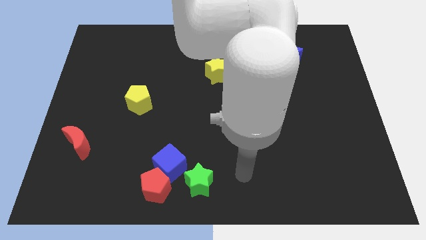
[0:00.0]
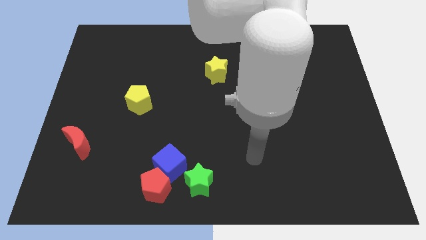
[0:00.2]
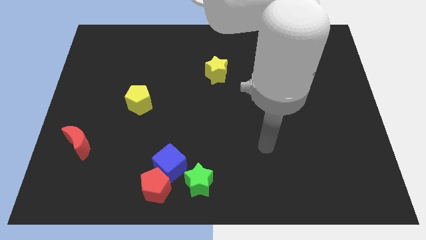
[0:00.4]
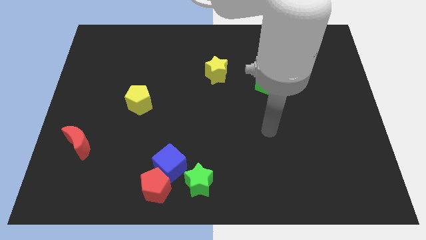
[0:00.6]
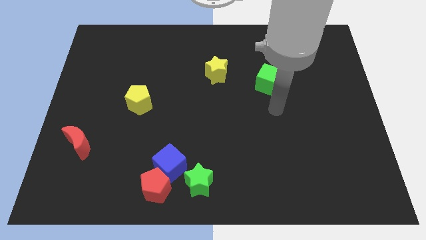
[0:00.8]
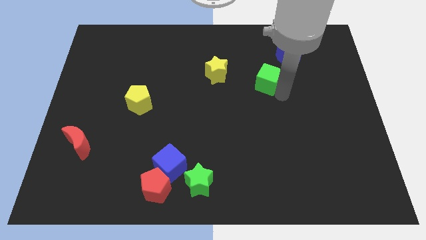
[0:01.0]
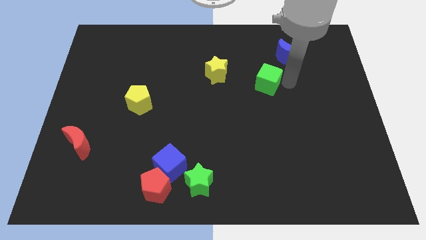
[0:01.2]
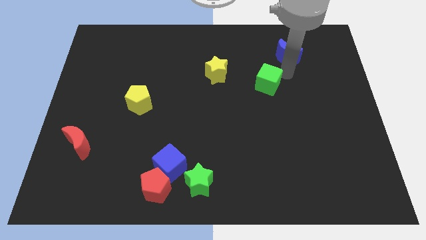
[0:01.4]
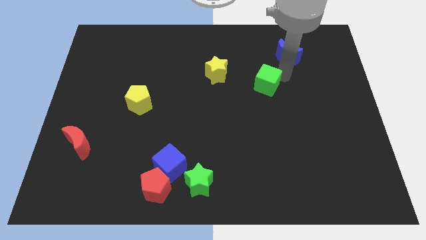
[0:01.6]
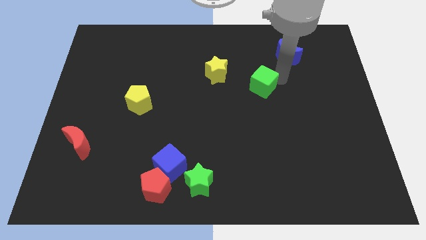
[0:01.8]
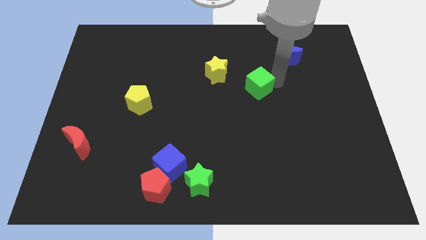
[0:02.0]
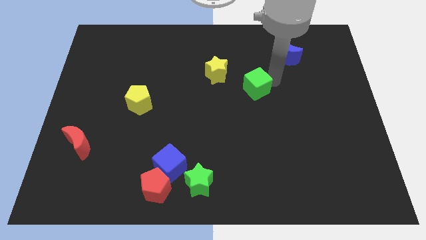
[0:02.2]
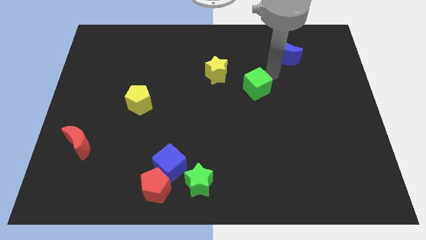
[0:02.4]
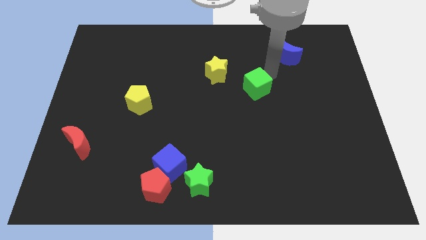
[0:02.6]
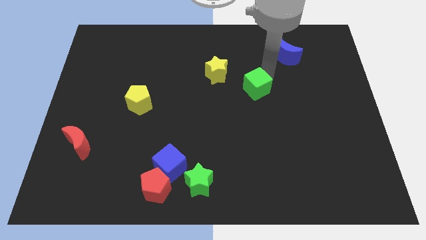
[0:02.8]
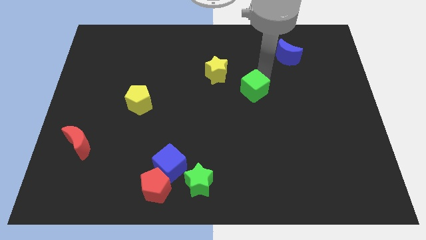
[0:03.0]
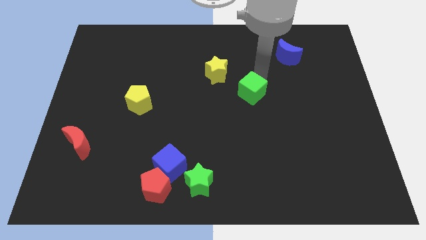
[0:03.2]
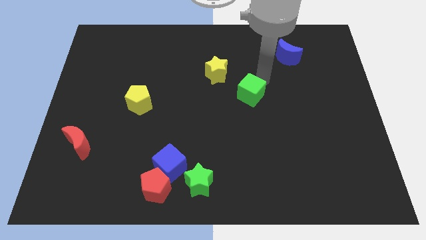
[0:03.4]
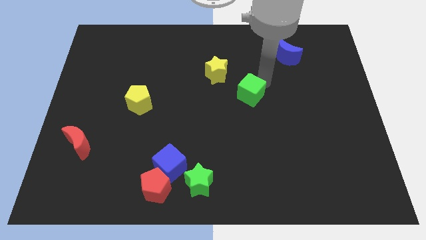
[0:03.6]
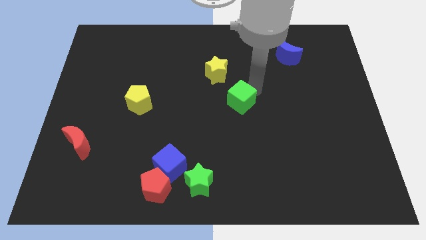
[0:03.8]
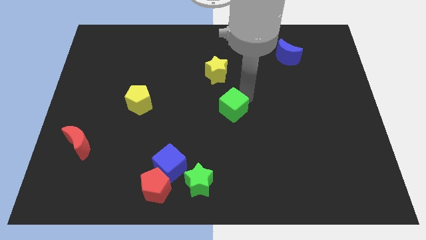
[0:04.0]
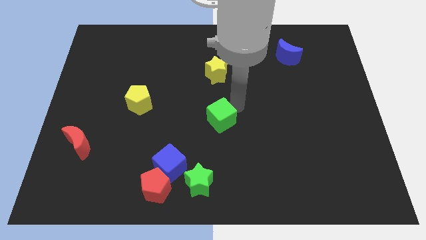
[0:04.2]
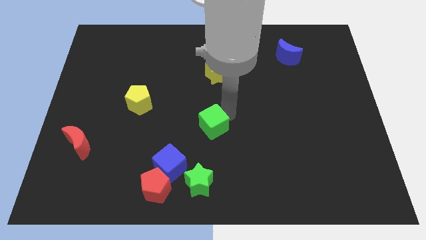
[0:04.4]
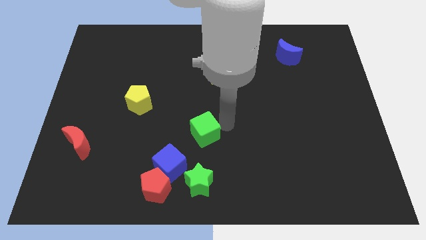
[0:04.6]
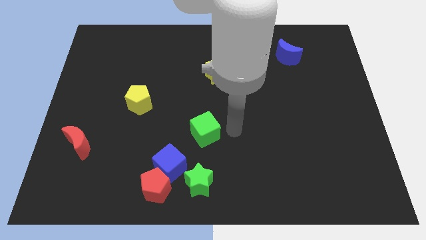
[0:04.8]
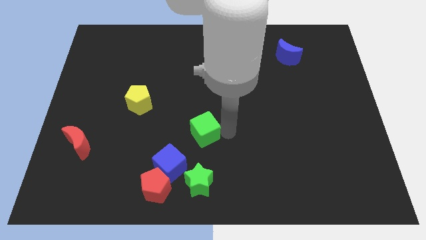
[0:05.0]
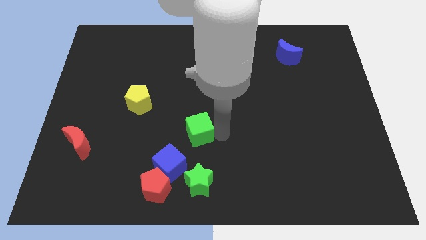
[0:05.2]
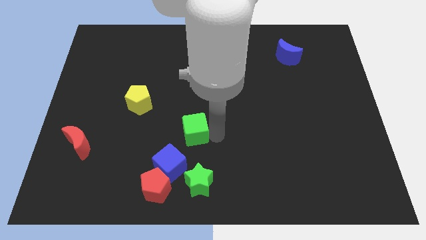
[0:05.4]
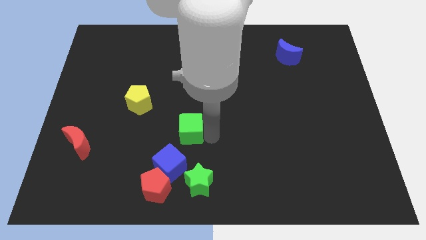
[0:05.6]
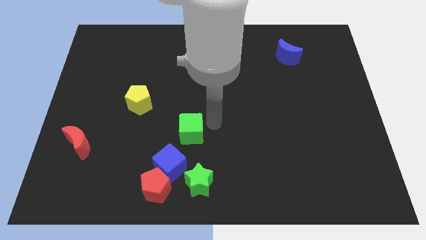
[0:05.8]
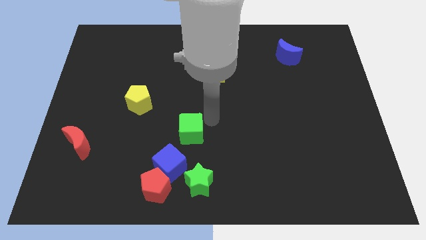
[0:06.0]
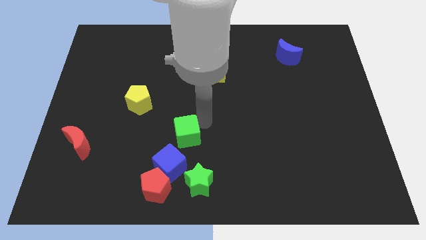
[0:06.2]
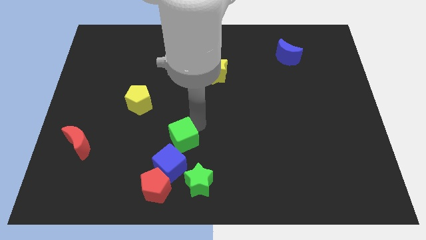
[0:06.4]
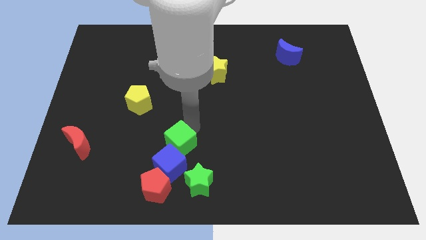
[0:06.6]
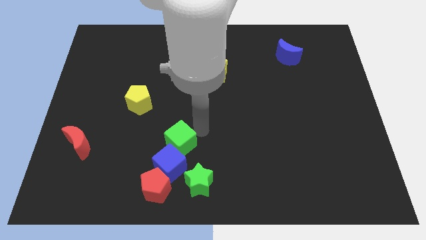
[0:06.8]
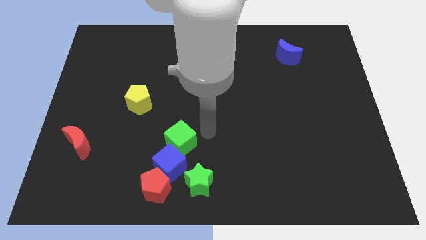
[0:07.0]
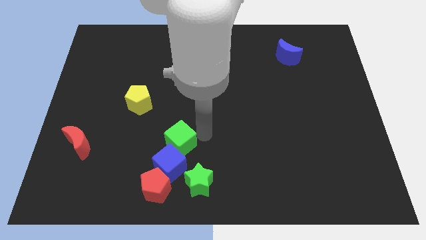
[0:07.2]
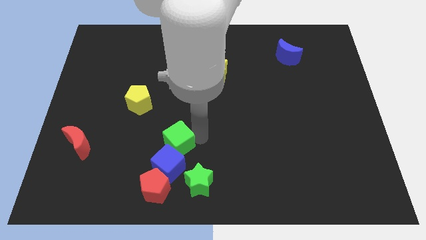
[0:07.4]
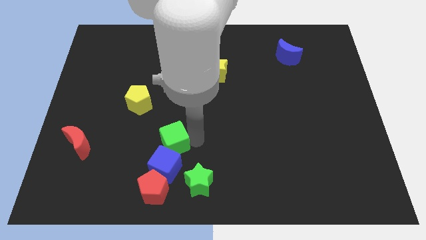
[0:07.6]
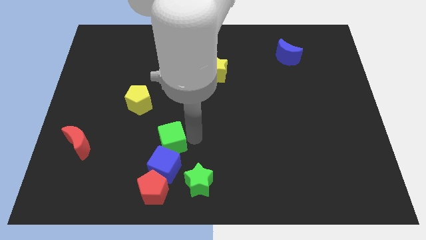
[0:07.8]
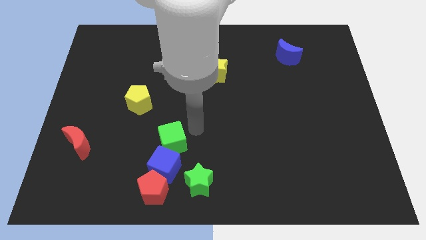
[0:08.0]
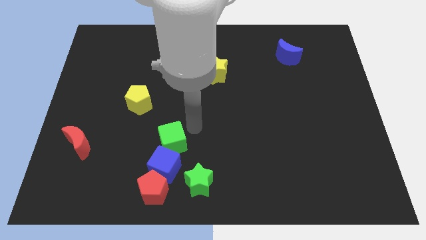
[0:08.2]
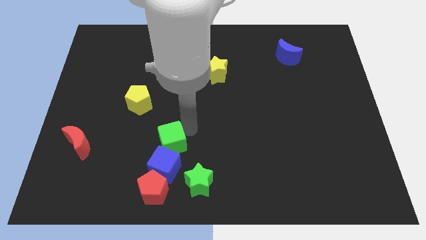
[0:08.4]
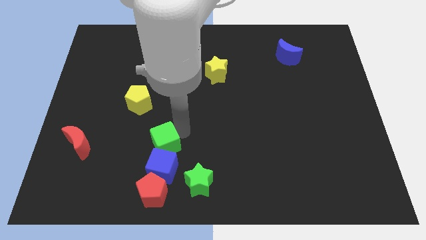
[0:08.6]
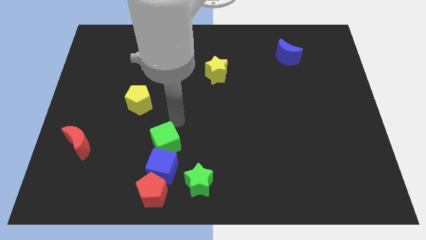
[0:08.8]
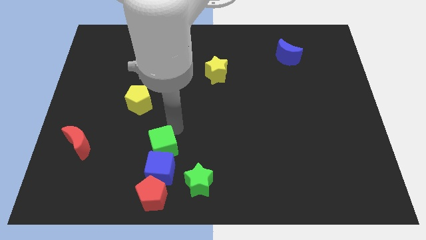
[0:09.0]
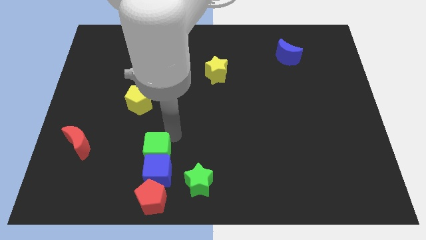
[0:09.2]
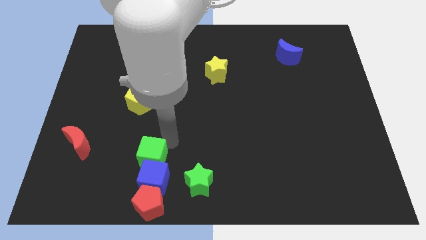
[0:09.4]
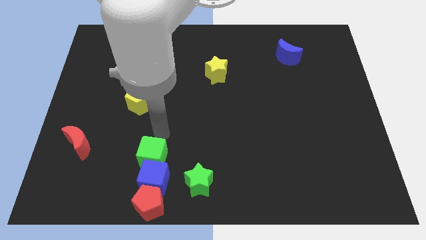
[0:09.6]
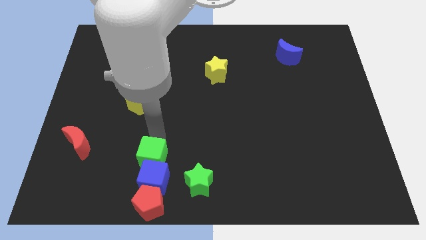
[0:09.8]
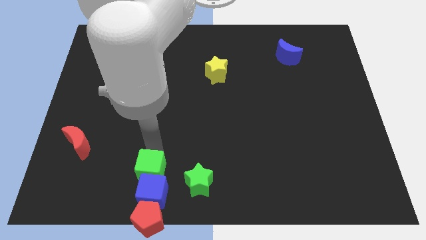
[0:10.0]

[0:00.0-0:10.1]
push the green cube just left of the green star

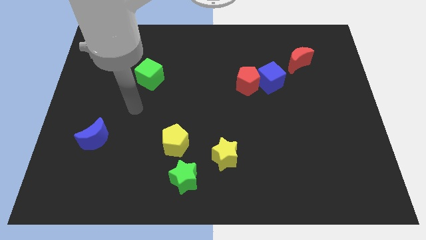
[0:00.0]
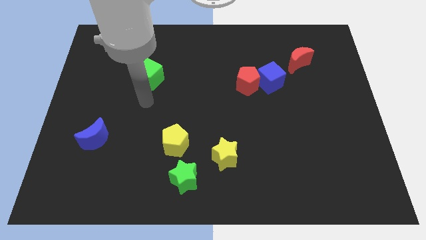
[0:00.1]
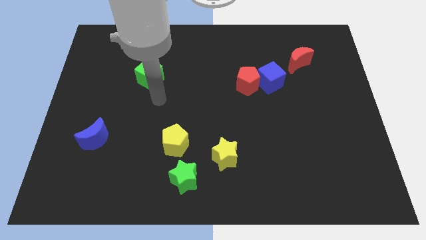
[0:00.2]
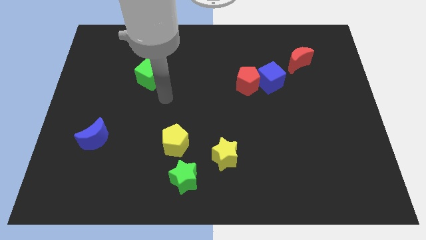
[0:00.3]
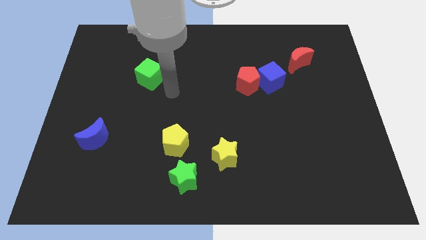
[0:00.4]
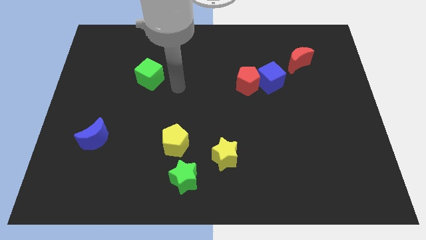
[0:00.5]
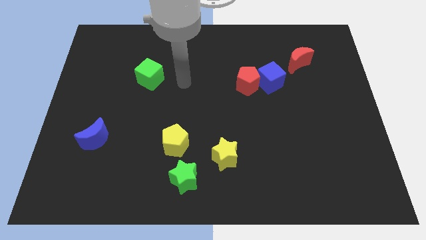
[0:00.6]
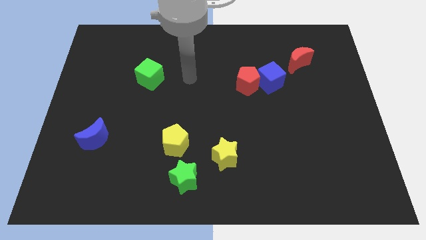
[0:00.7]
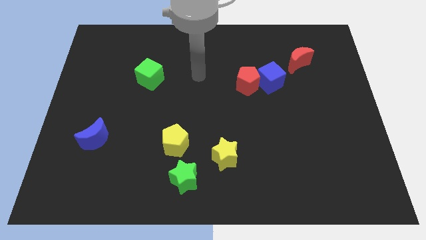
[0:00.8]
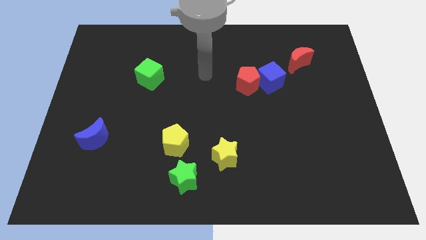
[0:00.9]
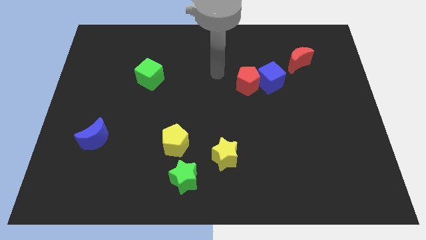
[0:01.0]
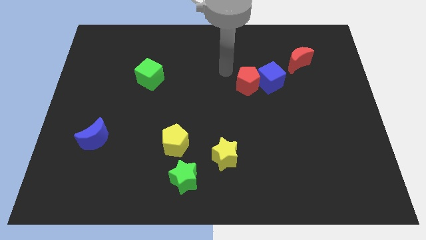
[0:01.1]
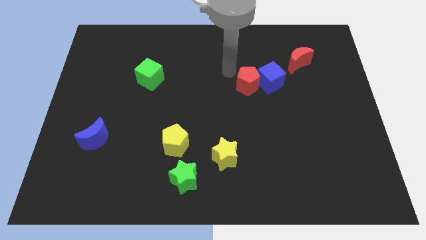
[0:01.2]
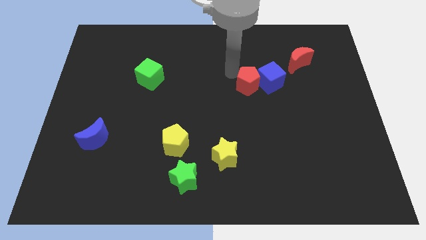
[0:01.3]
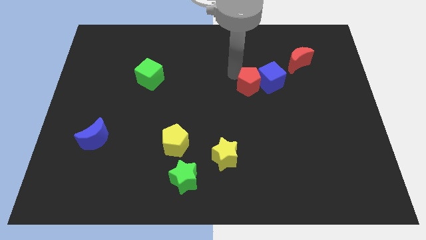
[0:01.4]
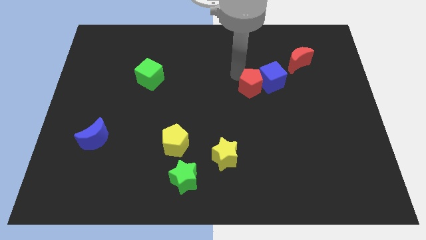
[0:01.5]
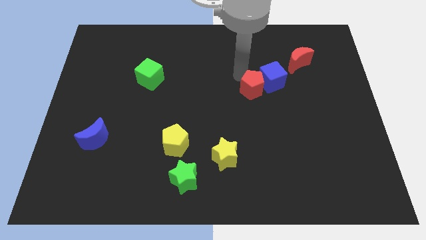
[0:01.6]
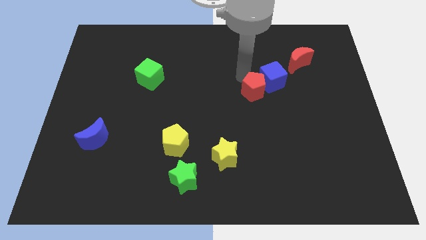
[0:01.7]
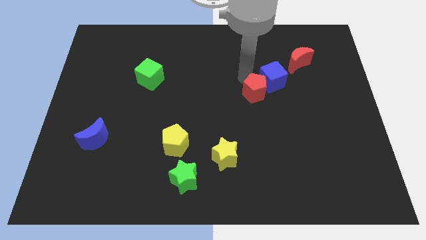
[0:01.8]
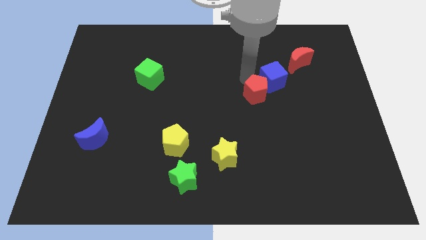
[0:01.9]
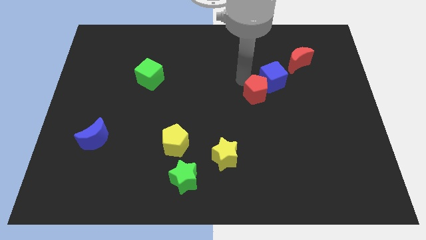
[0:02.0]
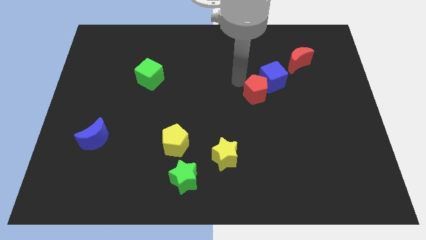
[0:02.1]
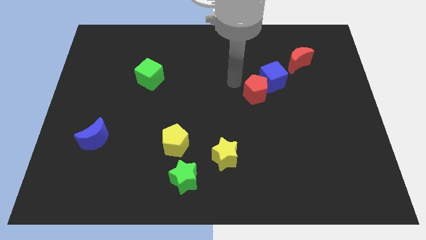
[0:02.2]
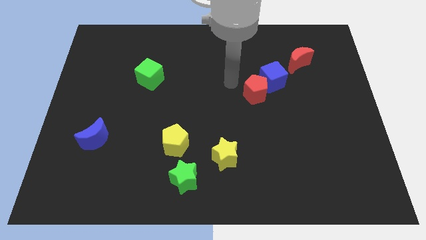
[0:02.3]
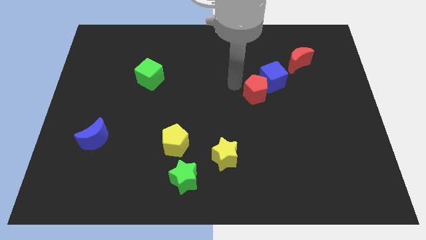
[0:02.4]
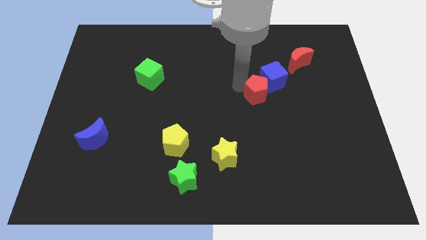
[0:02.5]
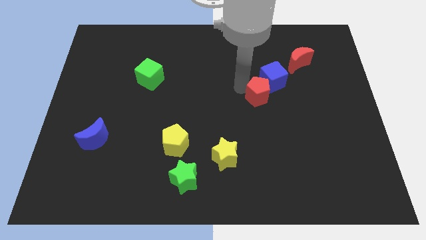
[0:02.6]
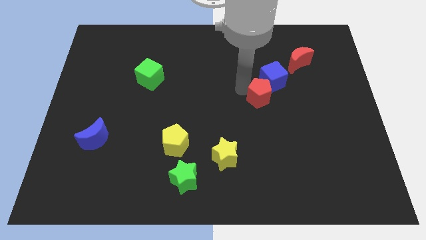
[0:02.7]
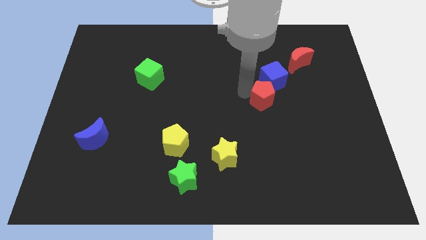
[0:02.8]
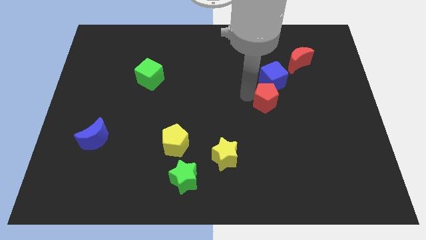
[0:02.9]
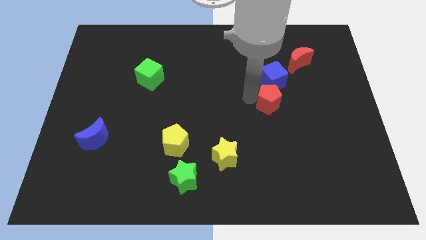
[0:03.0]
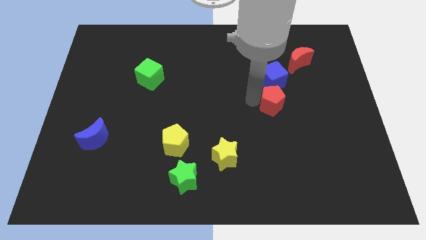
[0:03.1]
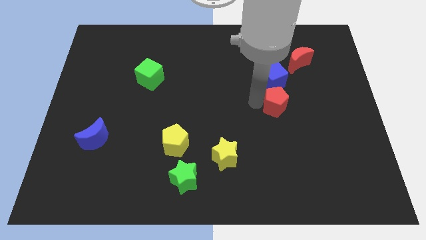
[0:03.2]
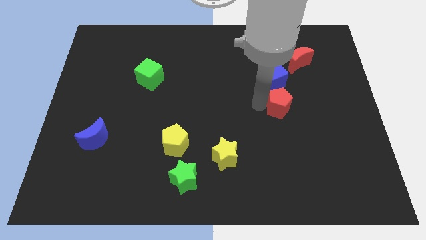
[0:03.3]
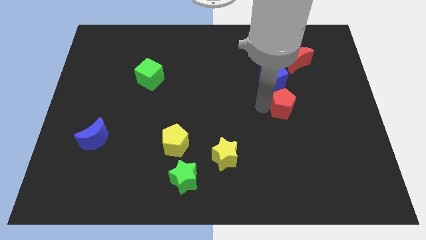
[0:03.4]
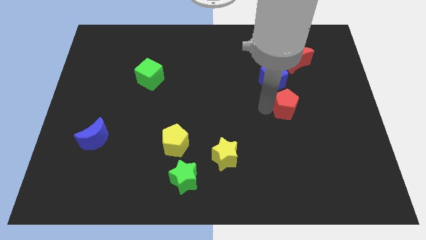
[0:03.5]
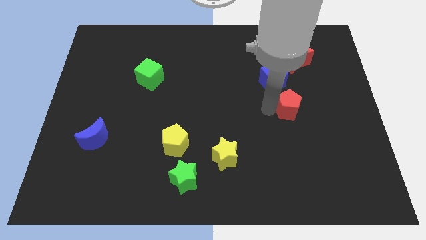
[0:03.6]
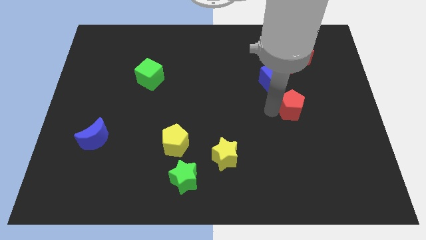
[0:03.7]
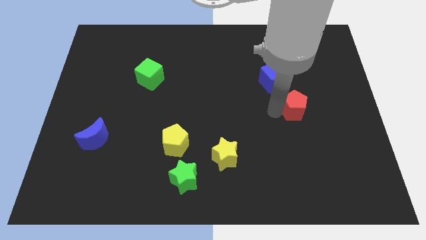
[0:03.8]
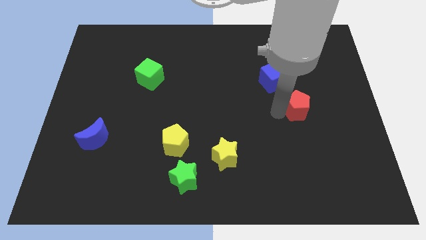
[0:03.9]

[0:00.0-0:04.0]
move the red pentagon to the bottom side of the red moon
